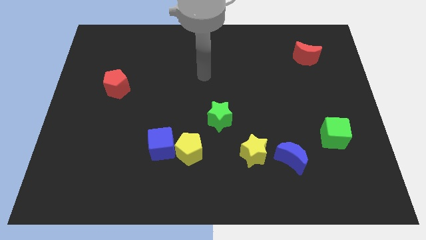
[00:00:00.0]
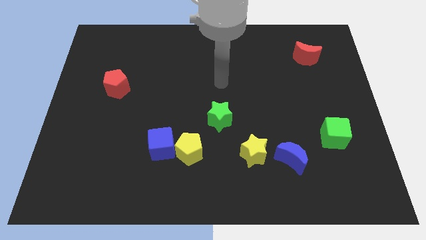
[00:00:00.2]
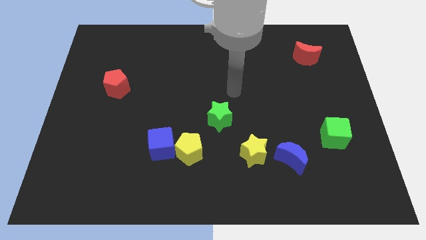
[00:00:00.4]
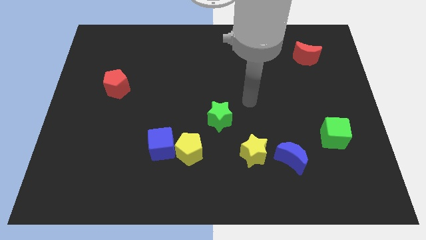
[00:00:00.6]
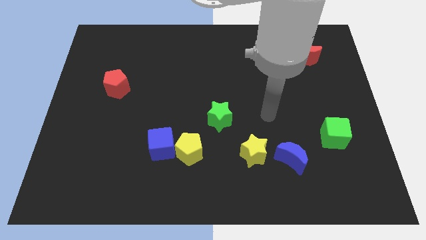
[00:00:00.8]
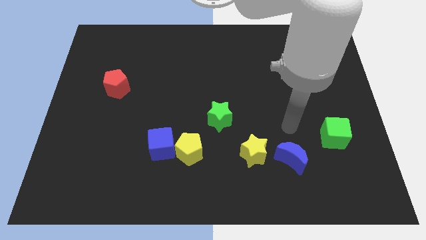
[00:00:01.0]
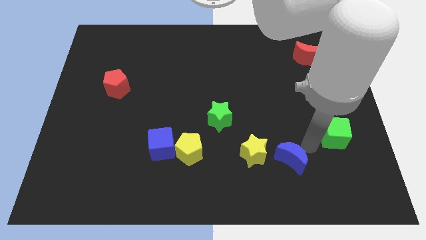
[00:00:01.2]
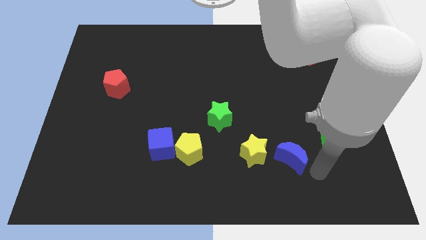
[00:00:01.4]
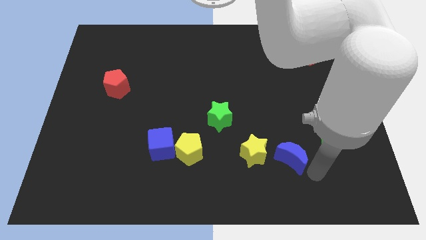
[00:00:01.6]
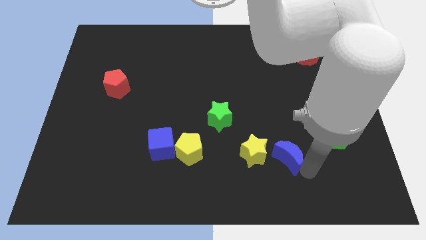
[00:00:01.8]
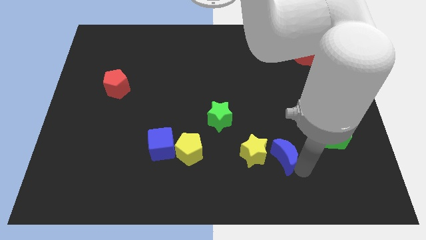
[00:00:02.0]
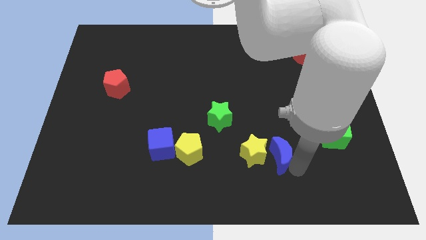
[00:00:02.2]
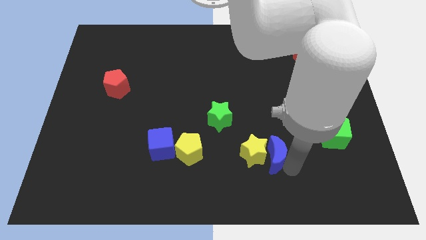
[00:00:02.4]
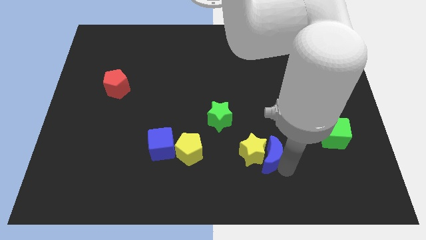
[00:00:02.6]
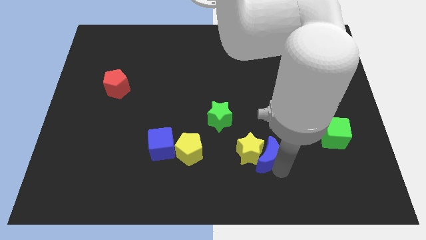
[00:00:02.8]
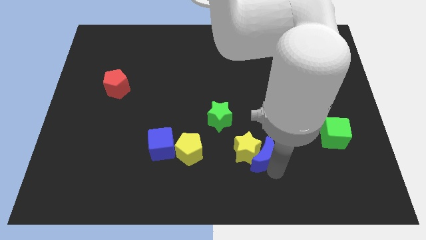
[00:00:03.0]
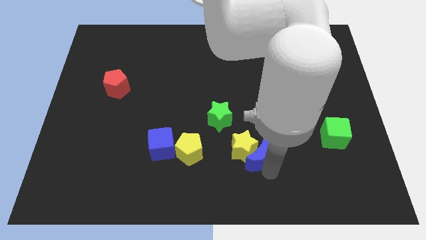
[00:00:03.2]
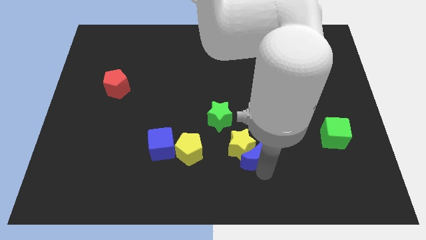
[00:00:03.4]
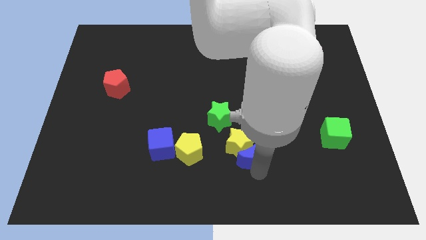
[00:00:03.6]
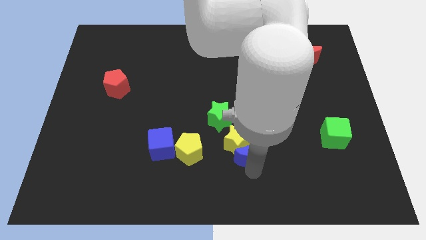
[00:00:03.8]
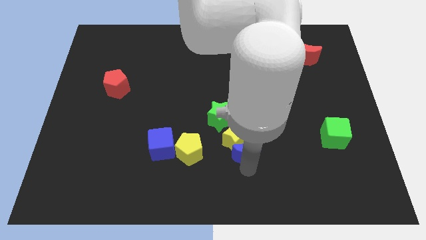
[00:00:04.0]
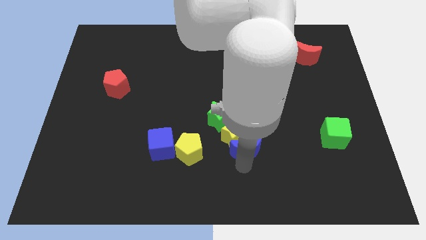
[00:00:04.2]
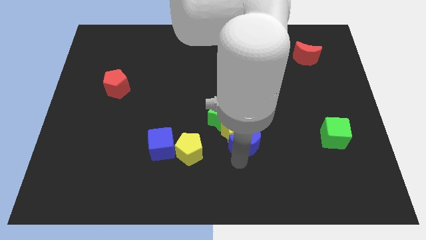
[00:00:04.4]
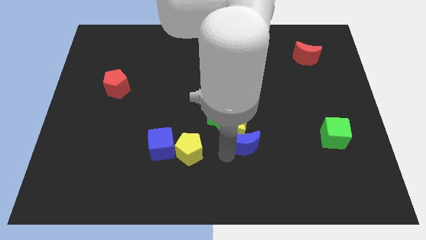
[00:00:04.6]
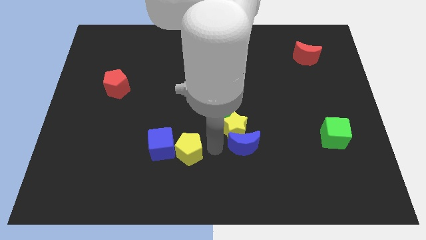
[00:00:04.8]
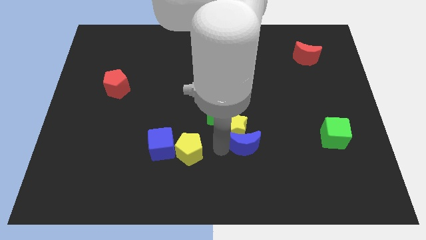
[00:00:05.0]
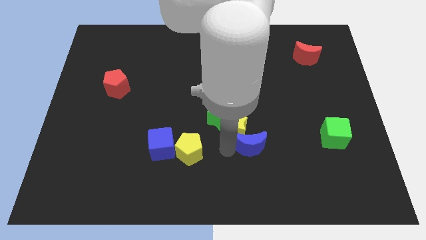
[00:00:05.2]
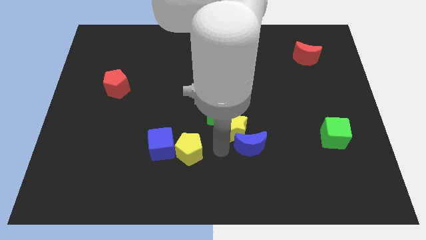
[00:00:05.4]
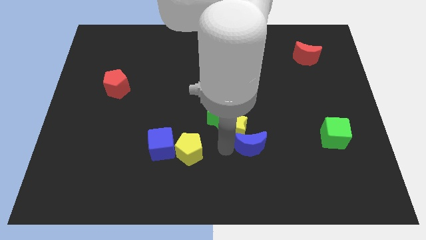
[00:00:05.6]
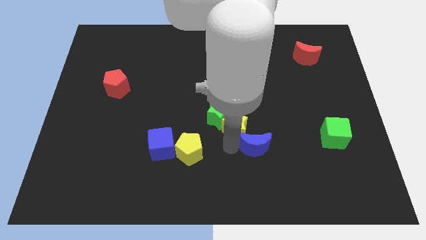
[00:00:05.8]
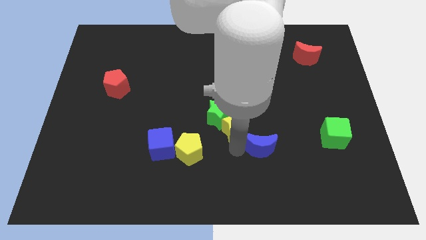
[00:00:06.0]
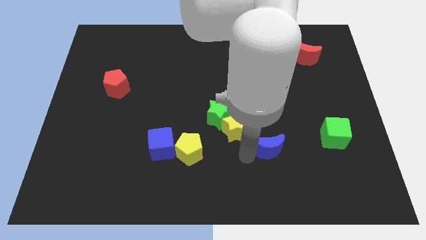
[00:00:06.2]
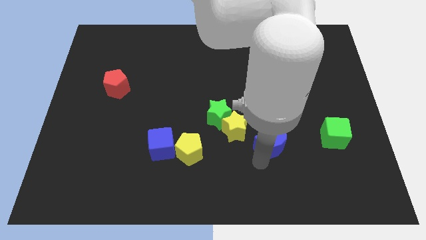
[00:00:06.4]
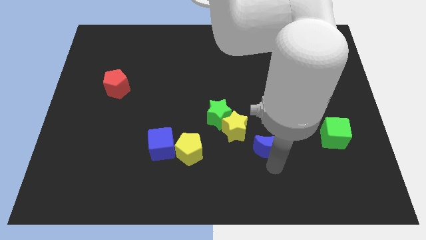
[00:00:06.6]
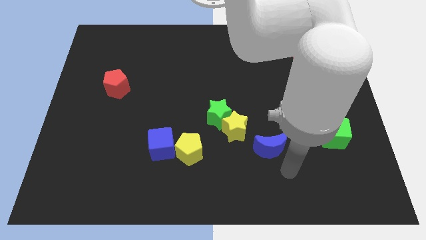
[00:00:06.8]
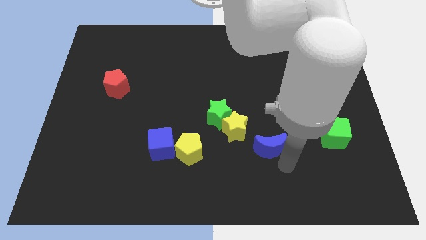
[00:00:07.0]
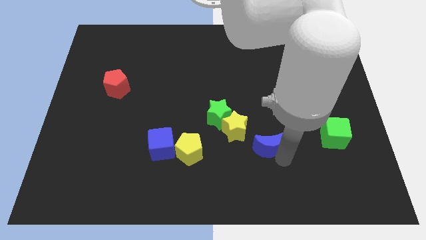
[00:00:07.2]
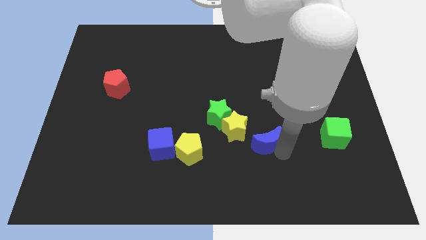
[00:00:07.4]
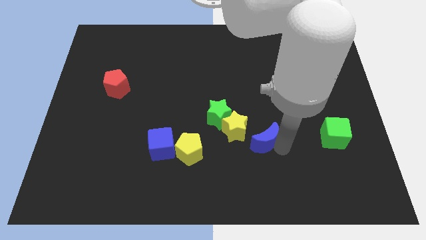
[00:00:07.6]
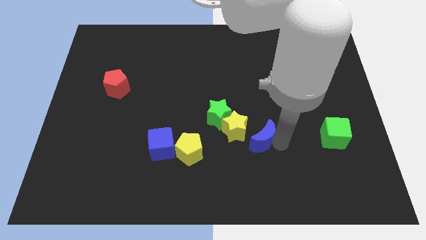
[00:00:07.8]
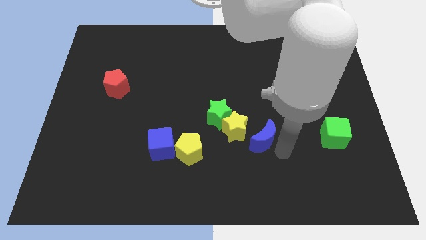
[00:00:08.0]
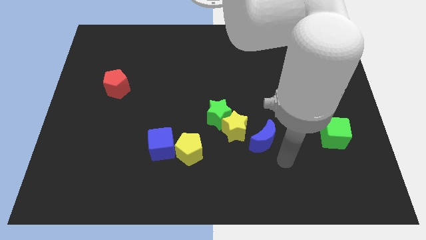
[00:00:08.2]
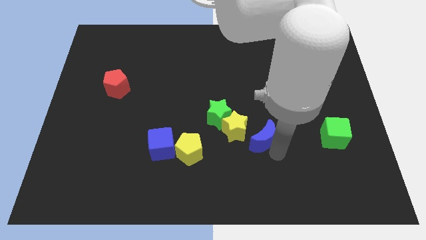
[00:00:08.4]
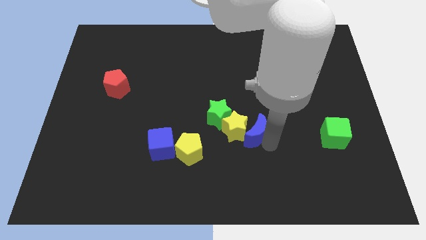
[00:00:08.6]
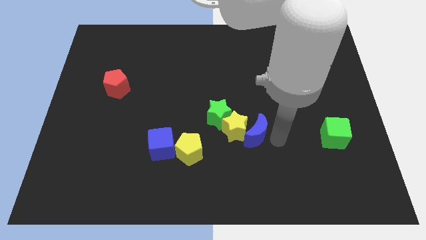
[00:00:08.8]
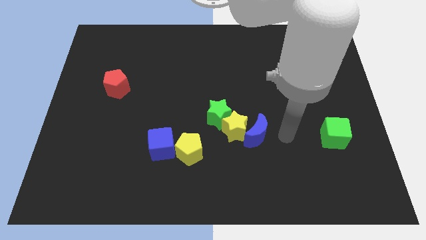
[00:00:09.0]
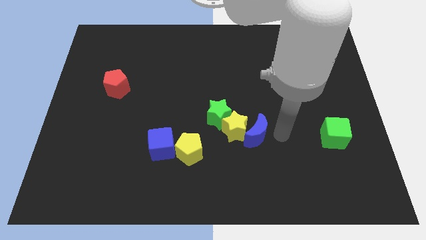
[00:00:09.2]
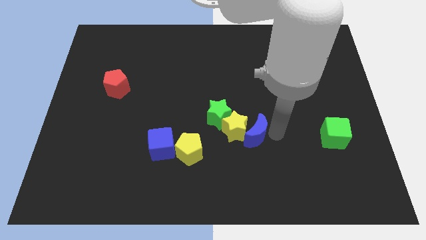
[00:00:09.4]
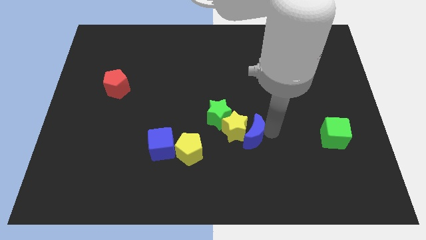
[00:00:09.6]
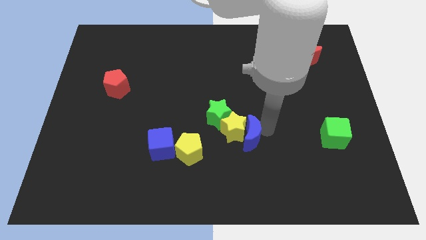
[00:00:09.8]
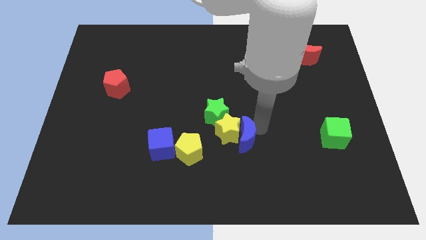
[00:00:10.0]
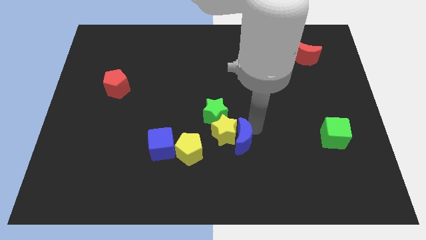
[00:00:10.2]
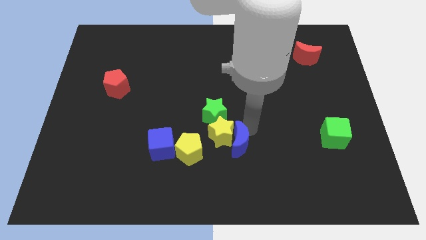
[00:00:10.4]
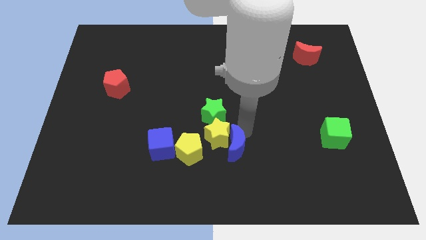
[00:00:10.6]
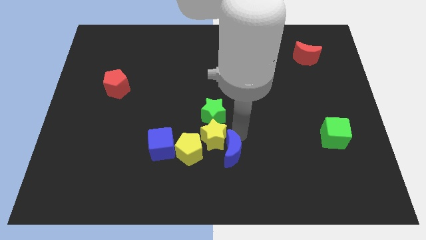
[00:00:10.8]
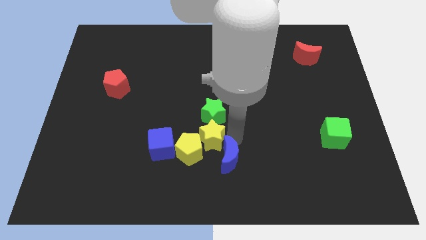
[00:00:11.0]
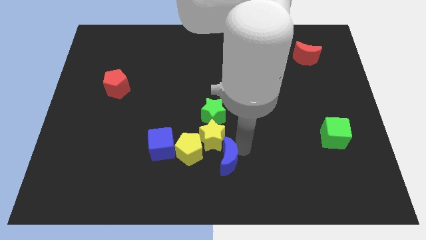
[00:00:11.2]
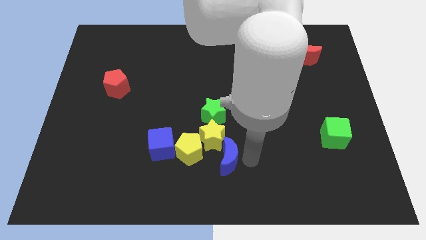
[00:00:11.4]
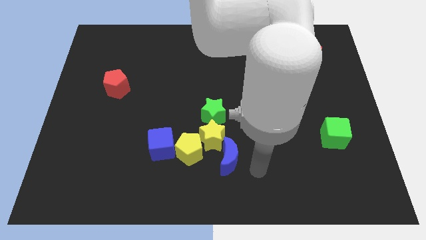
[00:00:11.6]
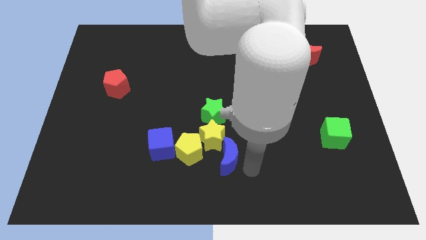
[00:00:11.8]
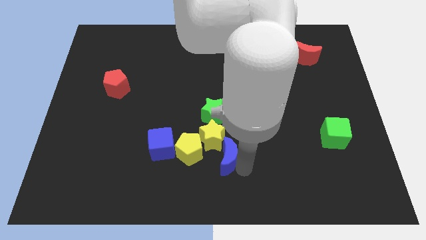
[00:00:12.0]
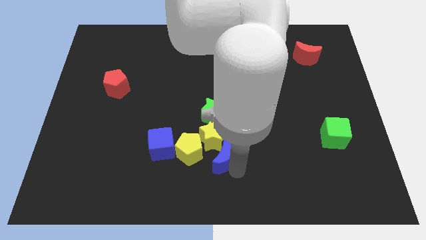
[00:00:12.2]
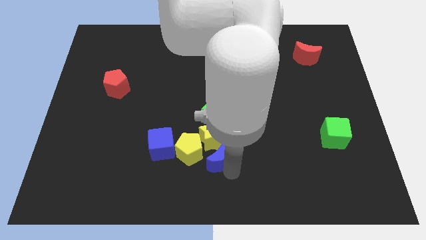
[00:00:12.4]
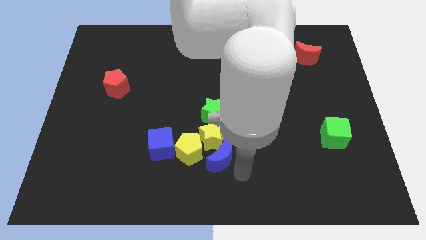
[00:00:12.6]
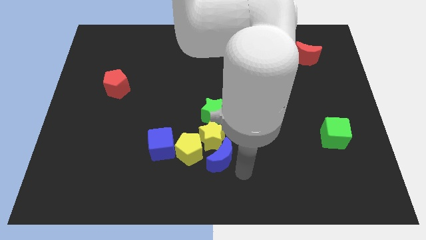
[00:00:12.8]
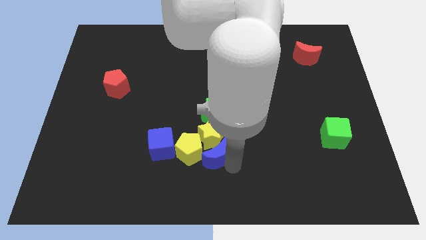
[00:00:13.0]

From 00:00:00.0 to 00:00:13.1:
push the blue moon towards the yellow pentagon

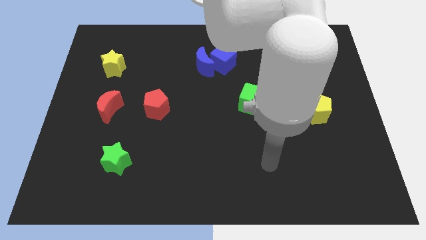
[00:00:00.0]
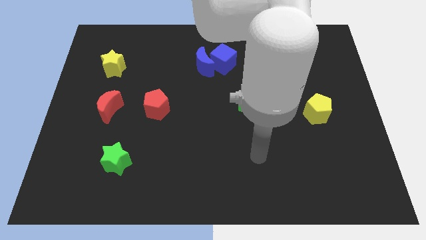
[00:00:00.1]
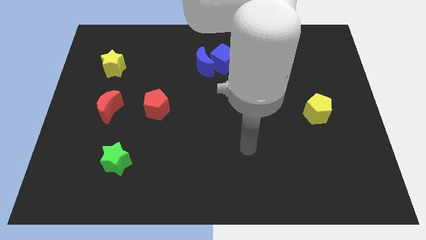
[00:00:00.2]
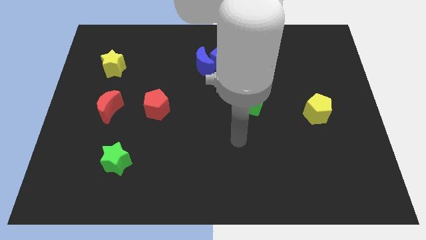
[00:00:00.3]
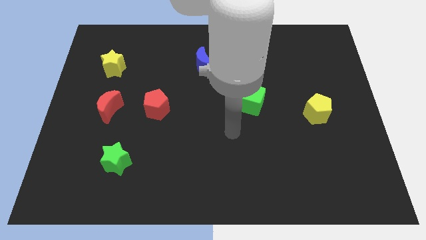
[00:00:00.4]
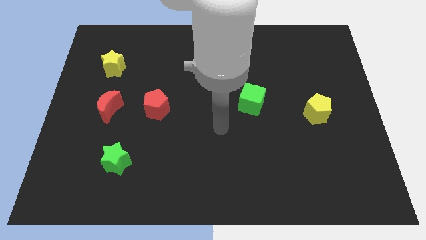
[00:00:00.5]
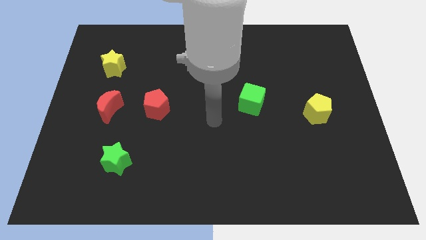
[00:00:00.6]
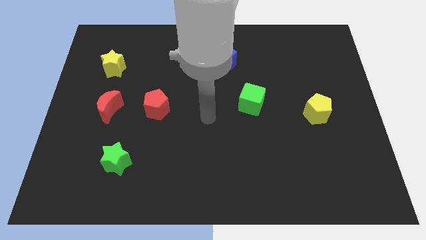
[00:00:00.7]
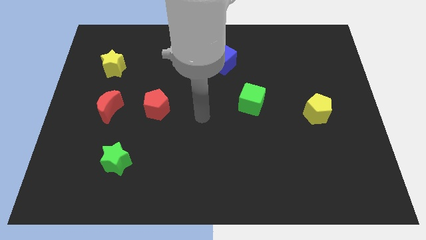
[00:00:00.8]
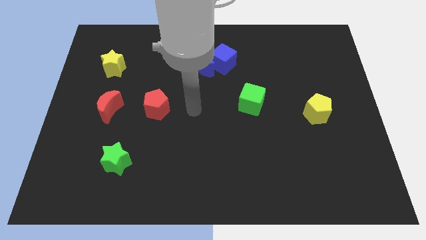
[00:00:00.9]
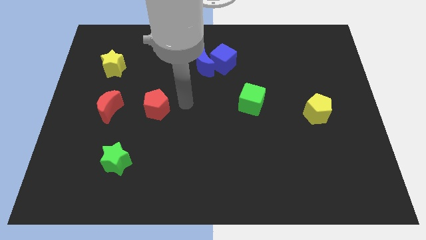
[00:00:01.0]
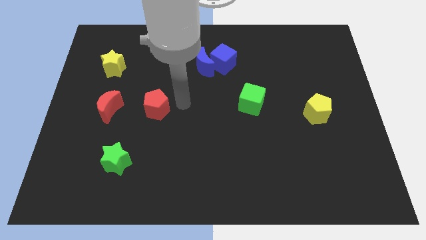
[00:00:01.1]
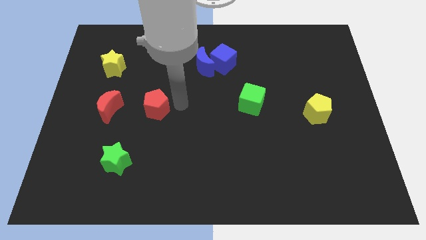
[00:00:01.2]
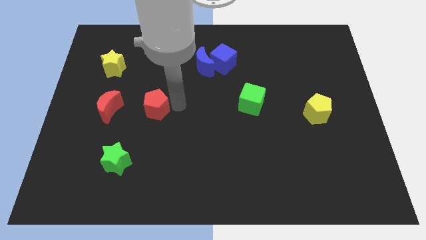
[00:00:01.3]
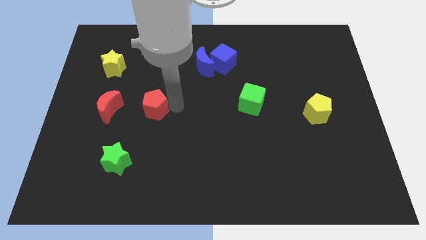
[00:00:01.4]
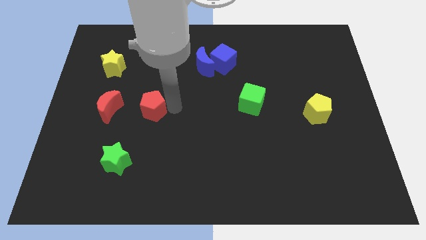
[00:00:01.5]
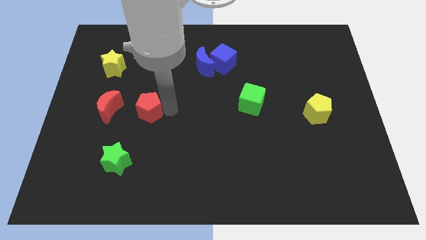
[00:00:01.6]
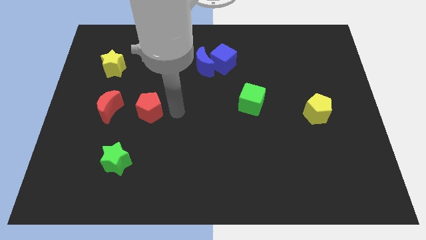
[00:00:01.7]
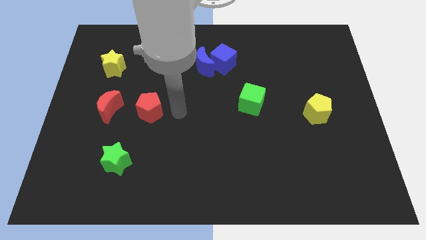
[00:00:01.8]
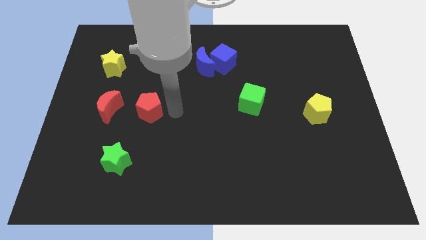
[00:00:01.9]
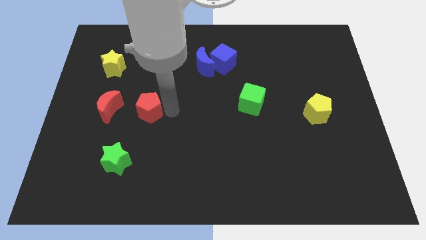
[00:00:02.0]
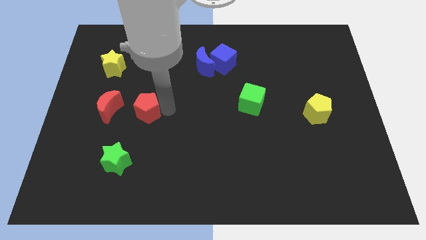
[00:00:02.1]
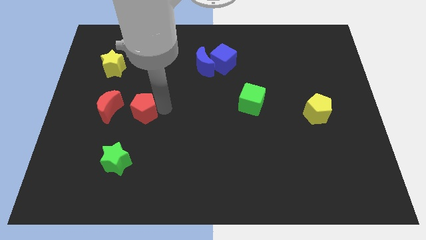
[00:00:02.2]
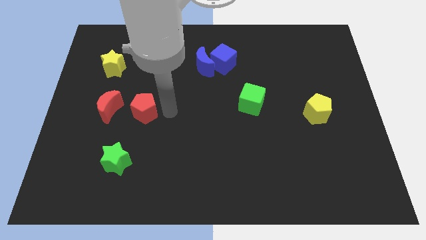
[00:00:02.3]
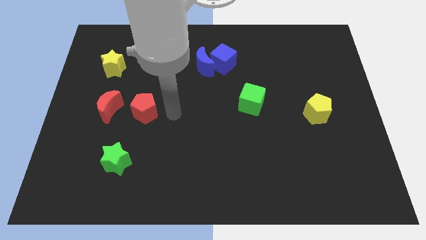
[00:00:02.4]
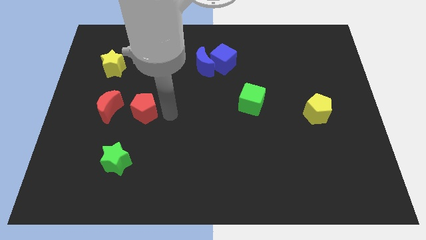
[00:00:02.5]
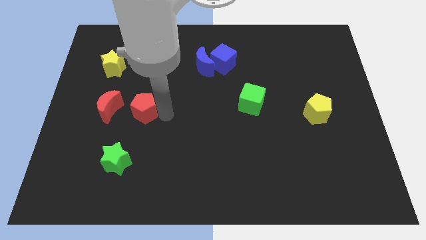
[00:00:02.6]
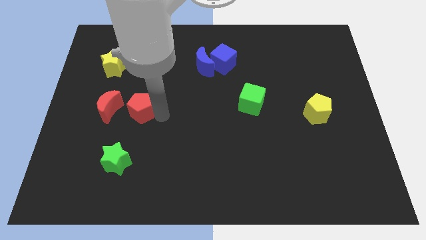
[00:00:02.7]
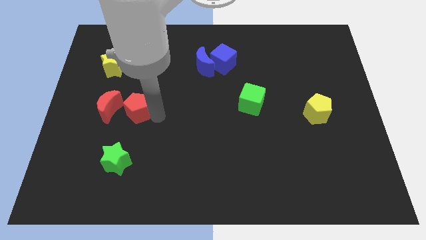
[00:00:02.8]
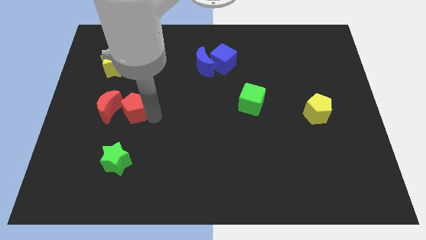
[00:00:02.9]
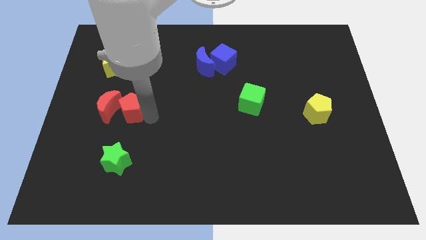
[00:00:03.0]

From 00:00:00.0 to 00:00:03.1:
move the red pentagon close to the red moon
